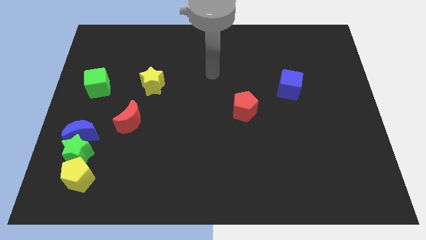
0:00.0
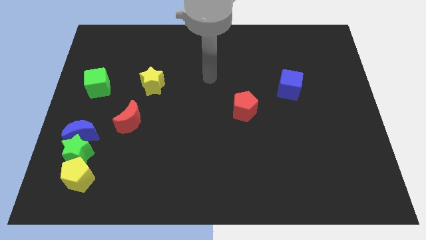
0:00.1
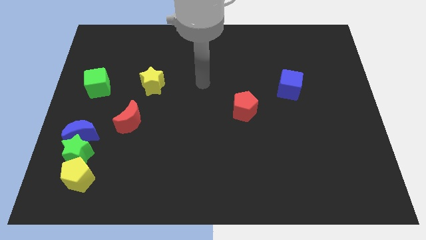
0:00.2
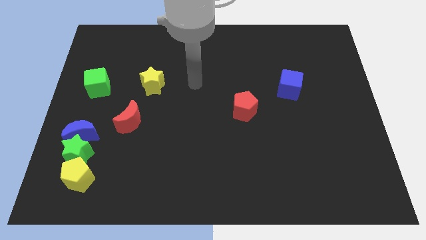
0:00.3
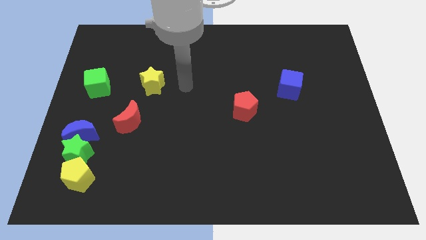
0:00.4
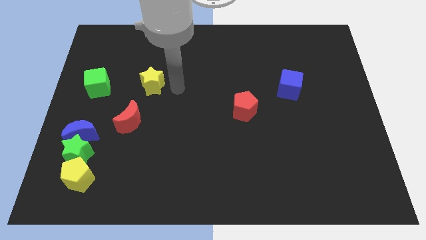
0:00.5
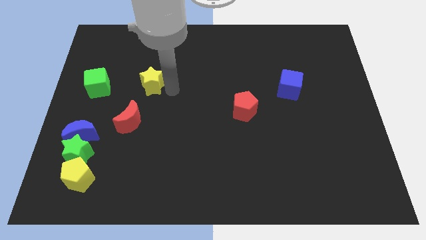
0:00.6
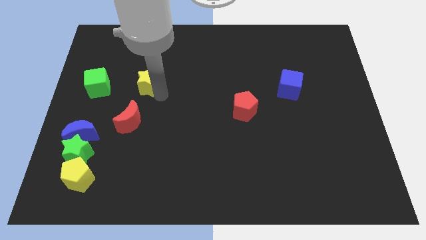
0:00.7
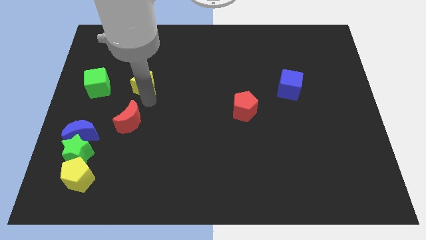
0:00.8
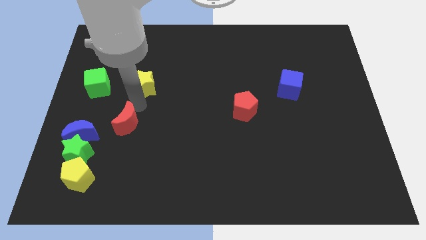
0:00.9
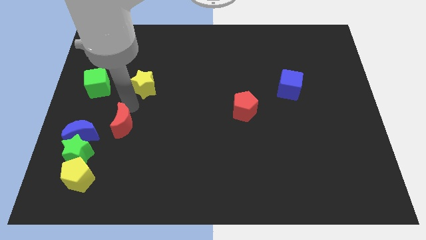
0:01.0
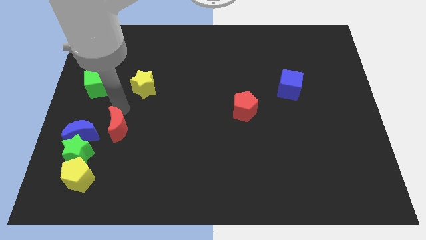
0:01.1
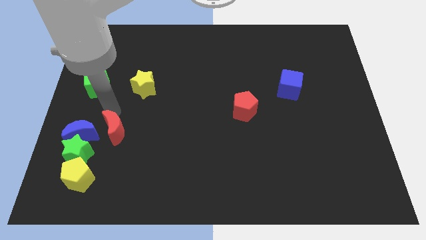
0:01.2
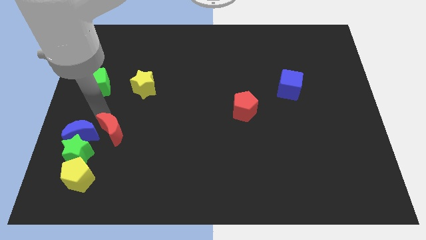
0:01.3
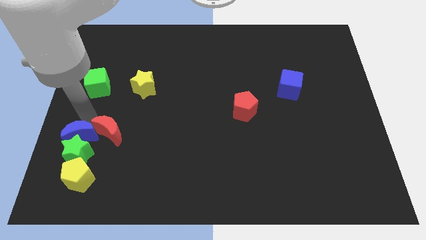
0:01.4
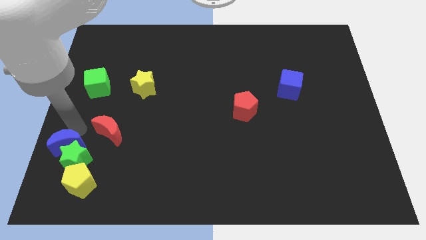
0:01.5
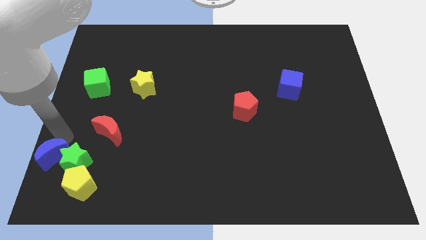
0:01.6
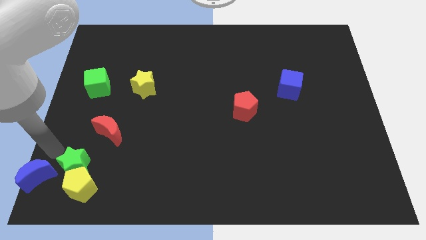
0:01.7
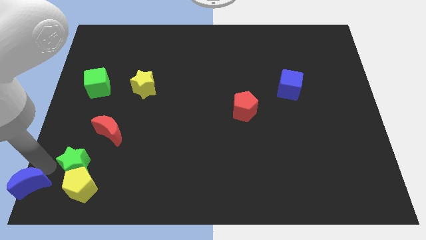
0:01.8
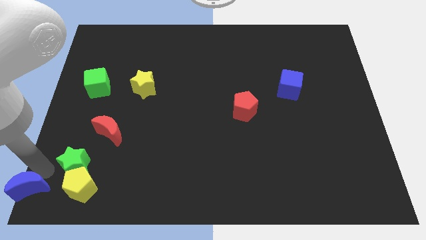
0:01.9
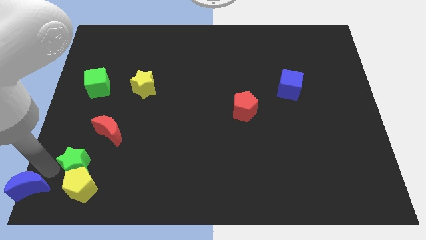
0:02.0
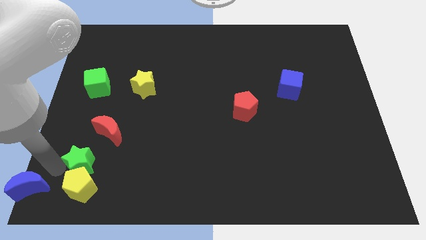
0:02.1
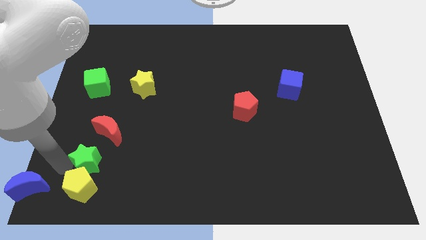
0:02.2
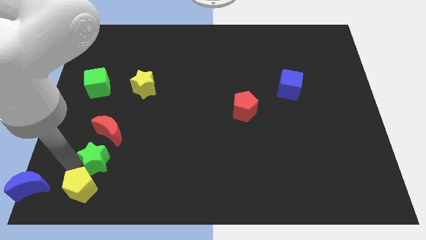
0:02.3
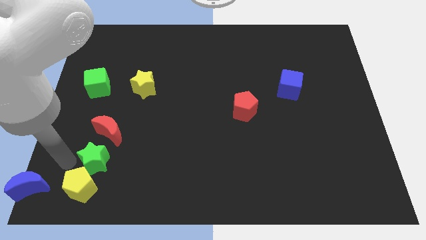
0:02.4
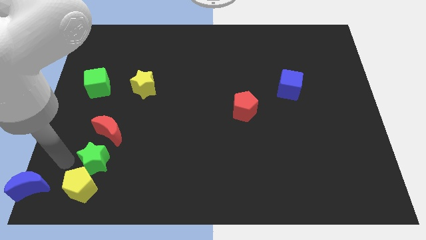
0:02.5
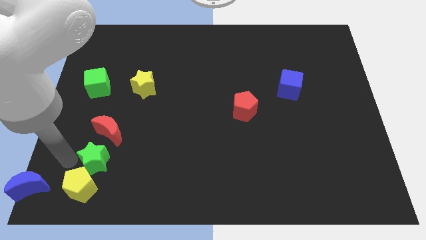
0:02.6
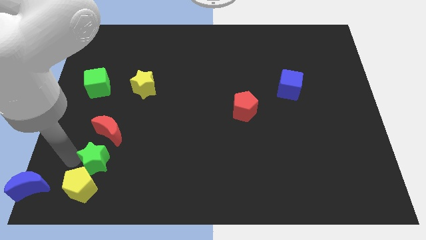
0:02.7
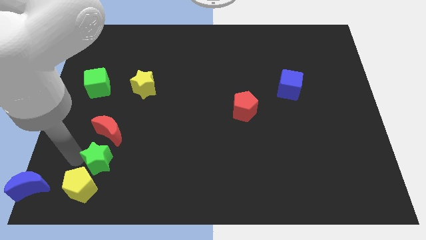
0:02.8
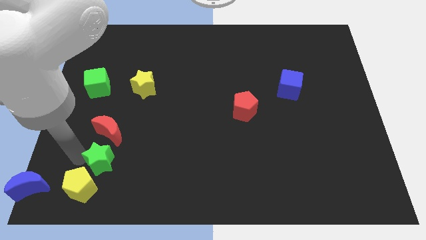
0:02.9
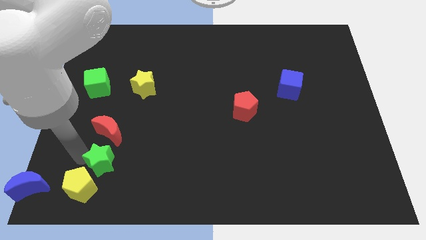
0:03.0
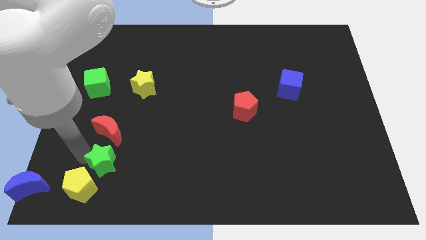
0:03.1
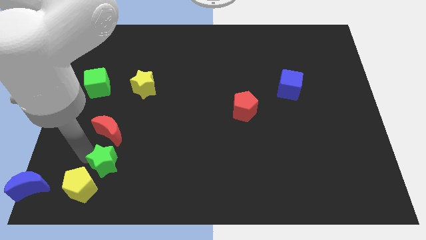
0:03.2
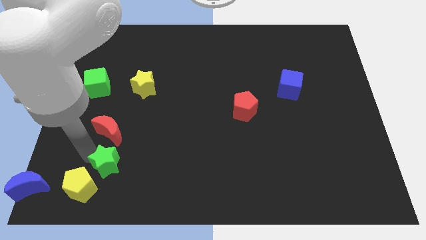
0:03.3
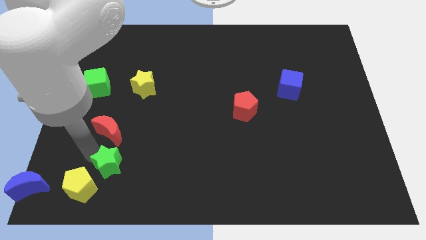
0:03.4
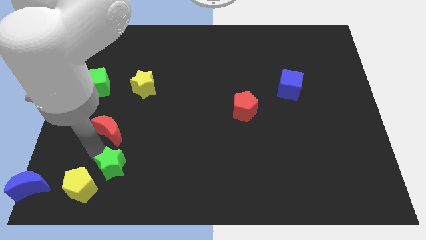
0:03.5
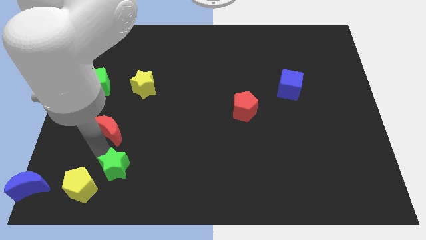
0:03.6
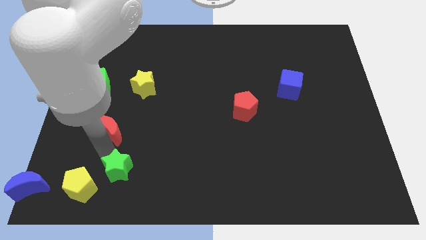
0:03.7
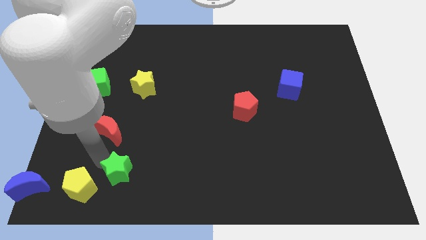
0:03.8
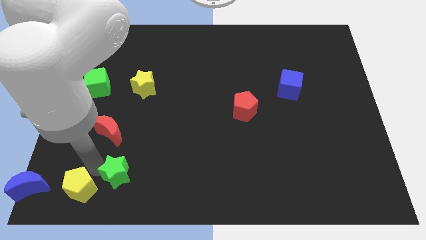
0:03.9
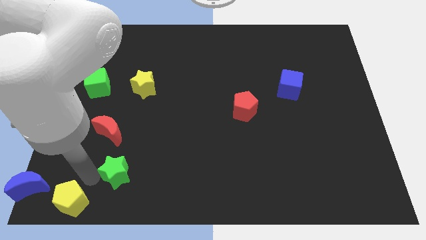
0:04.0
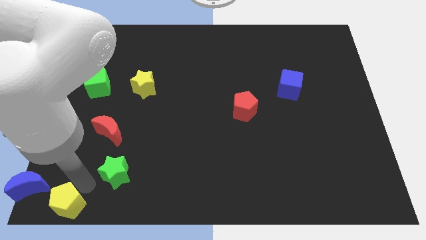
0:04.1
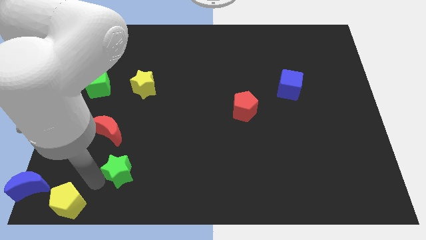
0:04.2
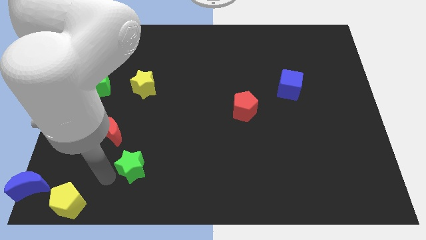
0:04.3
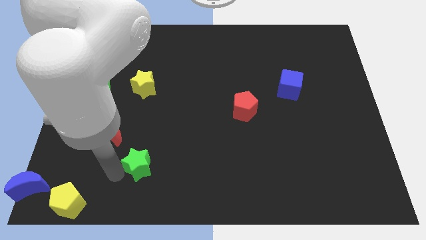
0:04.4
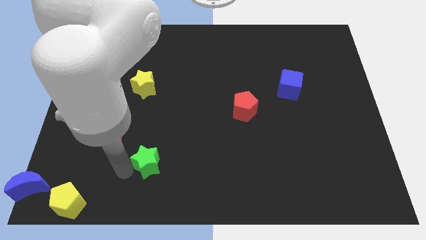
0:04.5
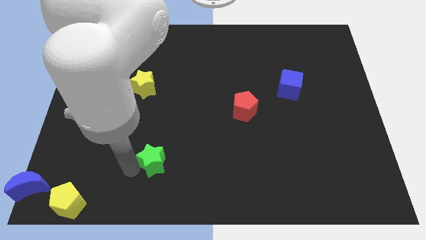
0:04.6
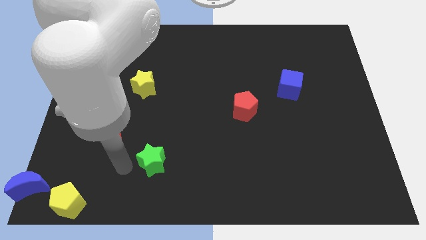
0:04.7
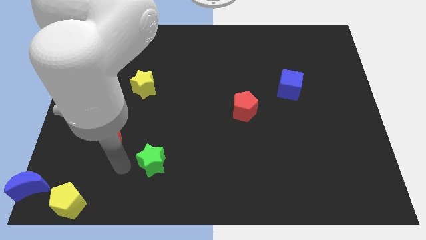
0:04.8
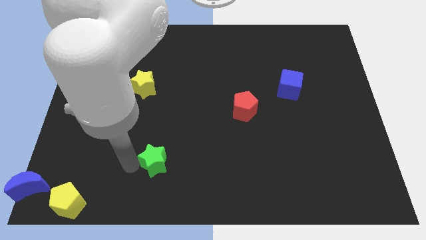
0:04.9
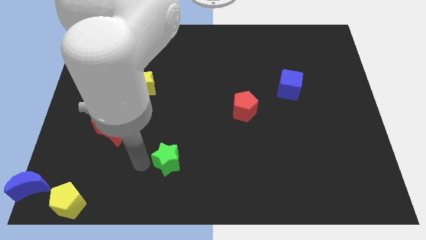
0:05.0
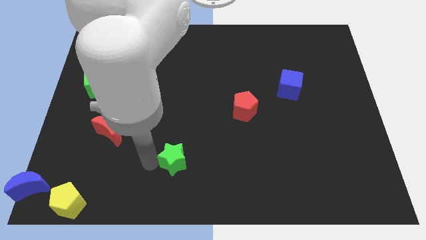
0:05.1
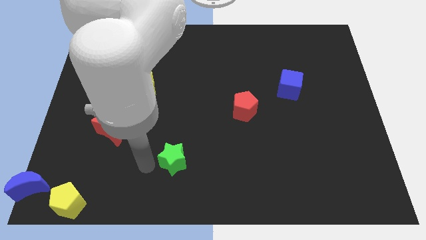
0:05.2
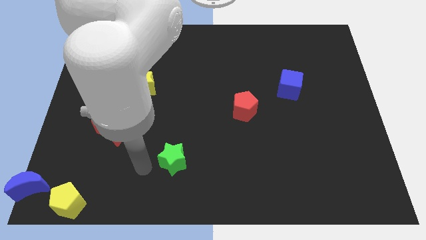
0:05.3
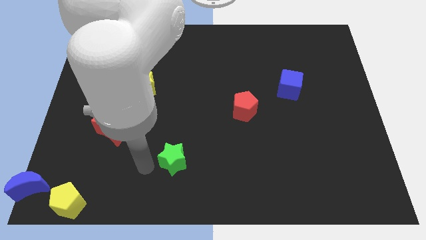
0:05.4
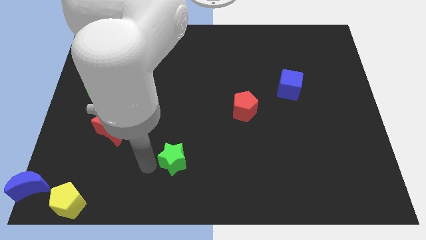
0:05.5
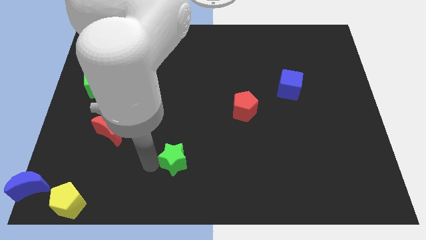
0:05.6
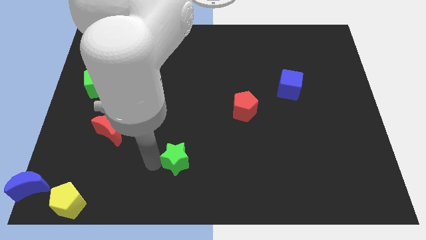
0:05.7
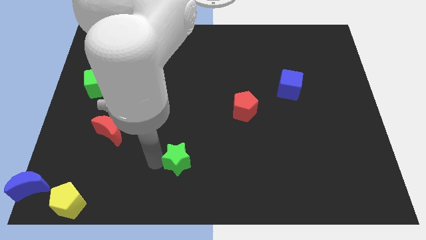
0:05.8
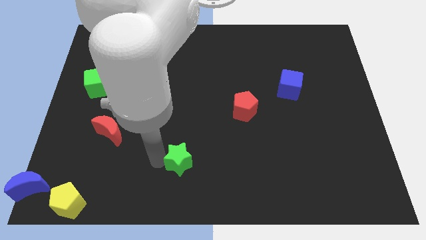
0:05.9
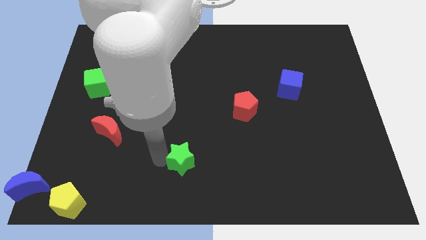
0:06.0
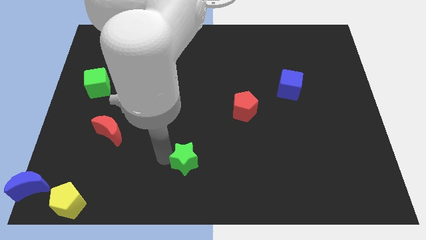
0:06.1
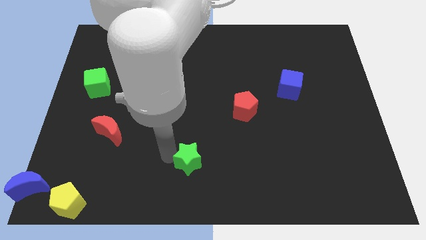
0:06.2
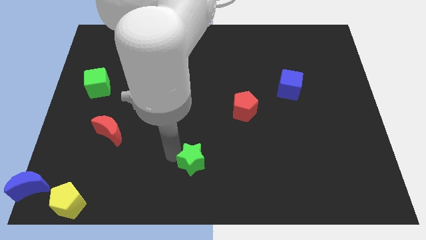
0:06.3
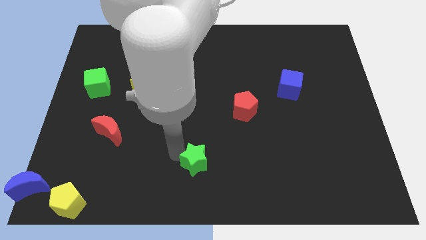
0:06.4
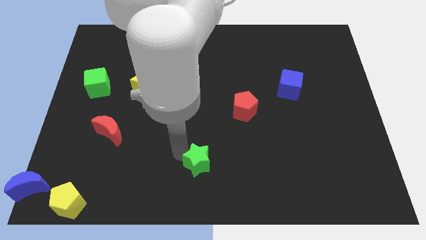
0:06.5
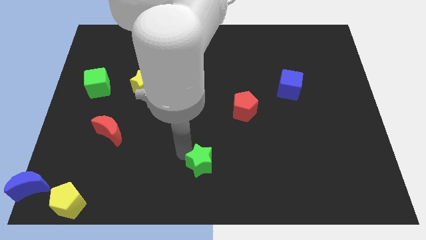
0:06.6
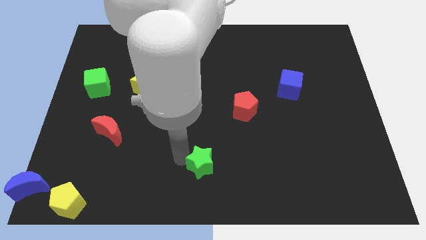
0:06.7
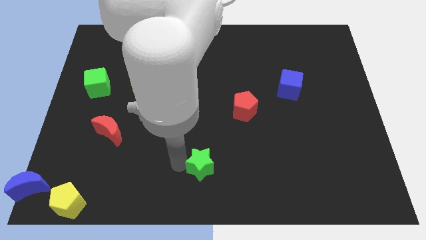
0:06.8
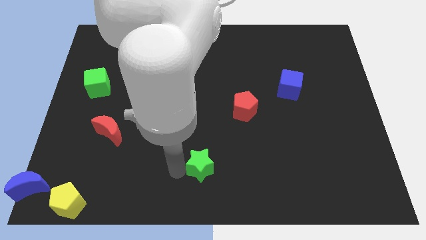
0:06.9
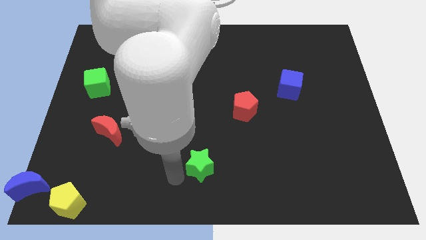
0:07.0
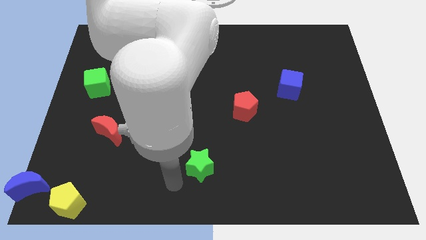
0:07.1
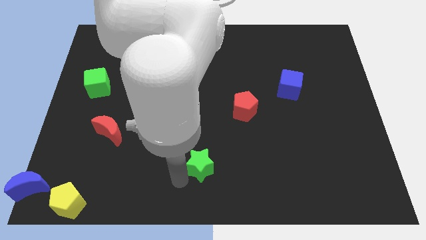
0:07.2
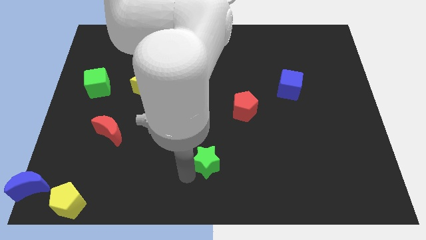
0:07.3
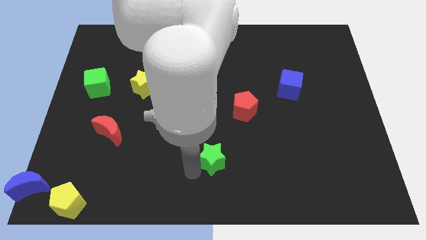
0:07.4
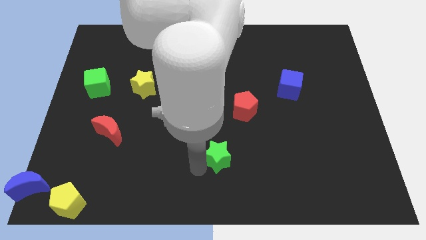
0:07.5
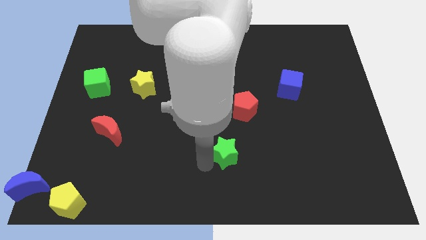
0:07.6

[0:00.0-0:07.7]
move the green star below the red pentagon
